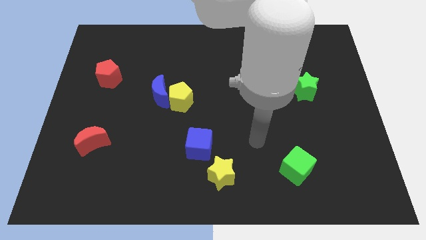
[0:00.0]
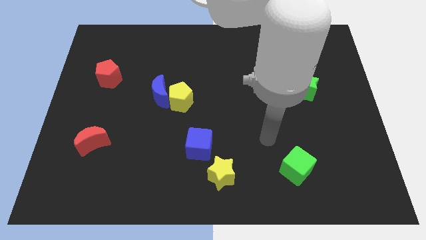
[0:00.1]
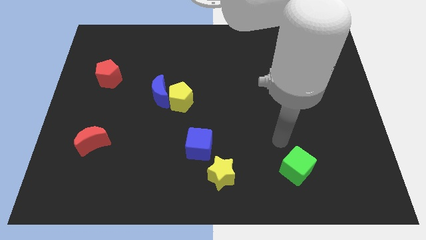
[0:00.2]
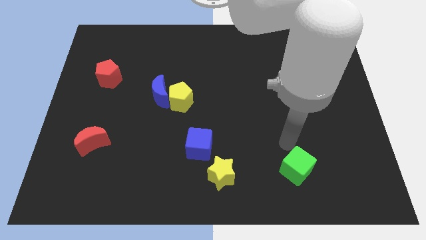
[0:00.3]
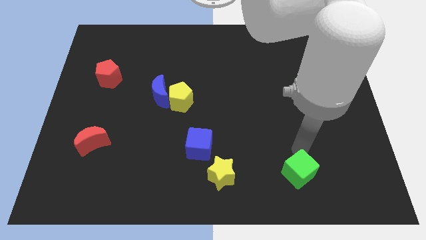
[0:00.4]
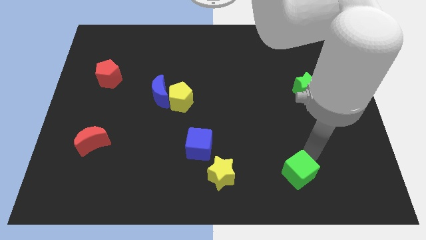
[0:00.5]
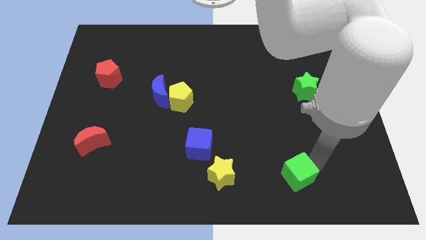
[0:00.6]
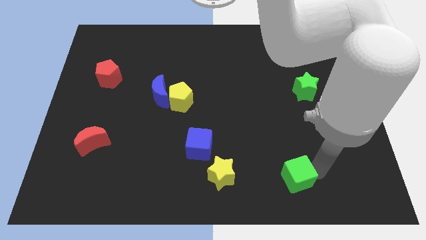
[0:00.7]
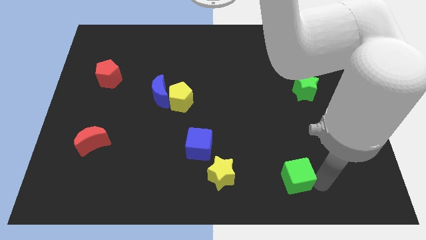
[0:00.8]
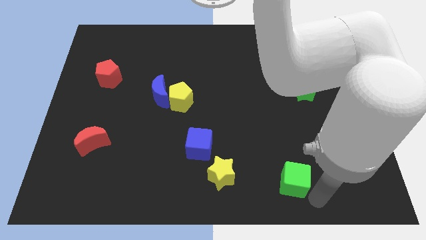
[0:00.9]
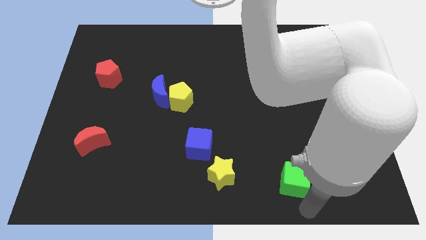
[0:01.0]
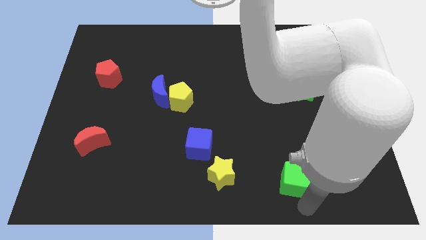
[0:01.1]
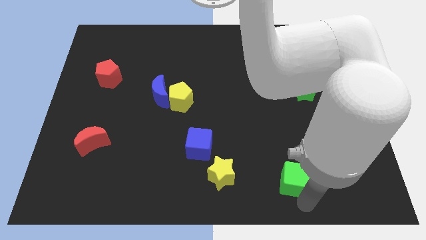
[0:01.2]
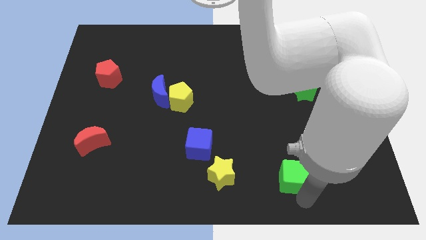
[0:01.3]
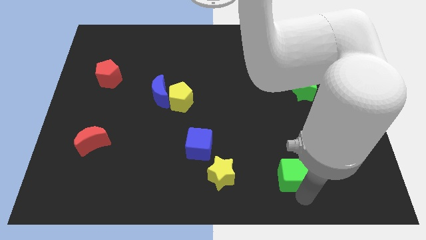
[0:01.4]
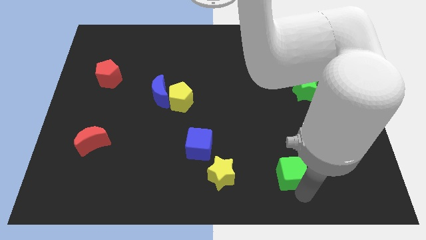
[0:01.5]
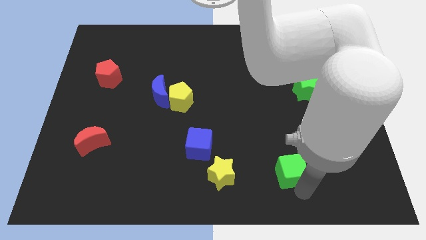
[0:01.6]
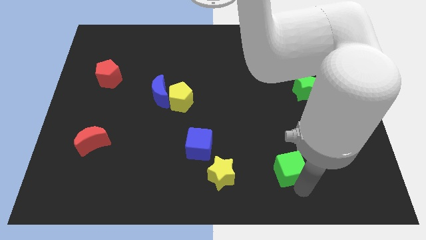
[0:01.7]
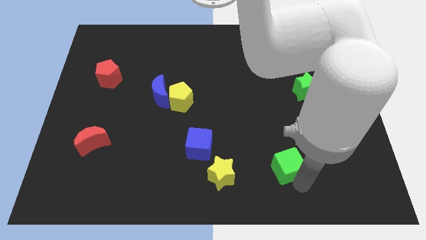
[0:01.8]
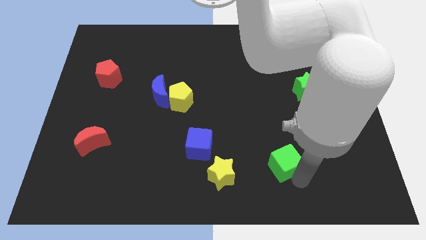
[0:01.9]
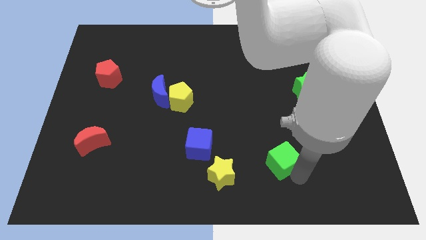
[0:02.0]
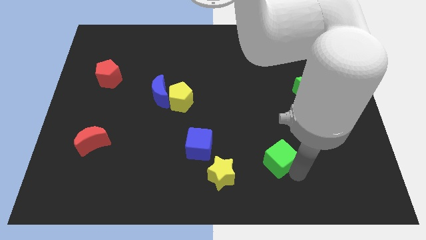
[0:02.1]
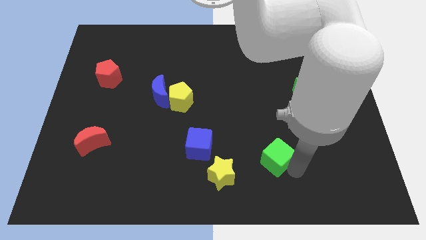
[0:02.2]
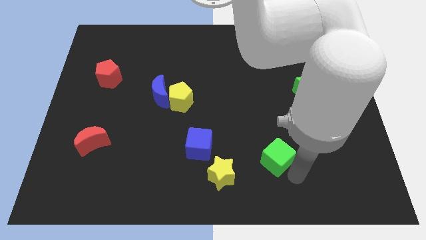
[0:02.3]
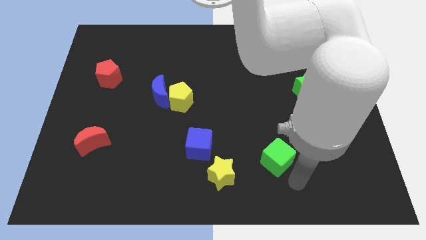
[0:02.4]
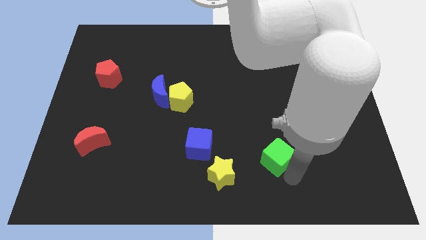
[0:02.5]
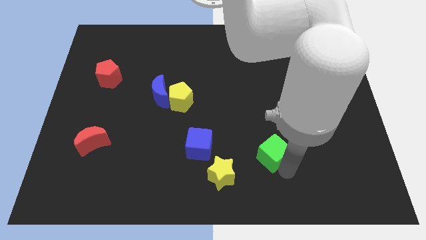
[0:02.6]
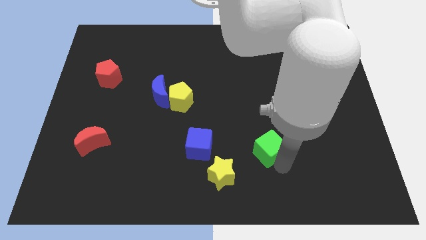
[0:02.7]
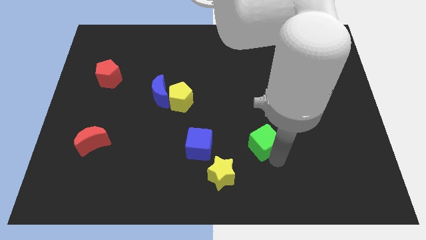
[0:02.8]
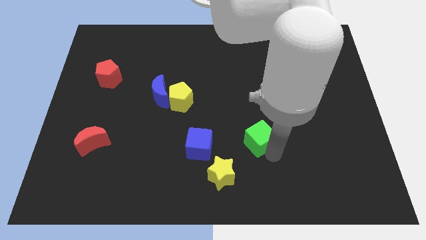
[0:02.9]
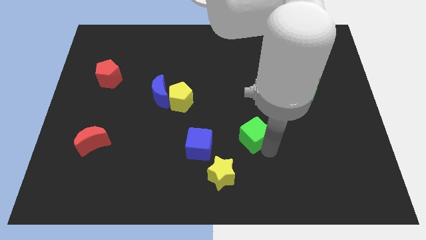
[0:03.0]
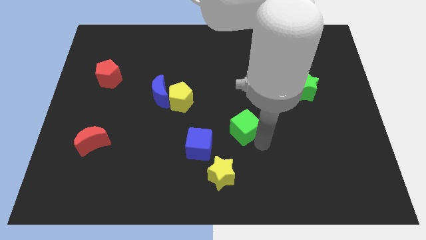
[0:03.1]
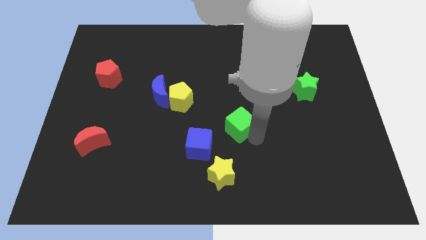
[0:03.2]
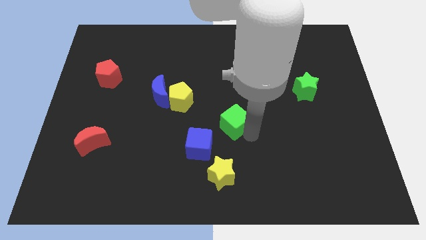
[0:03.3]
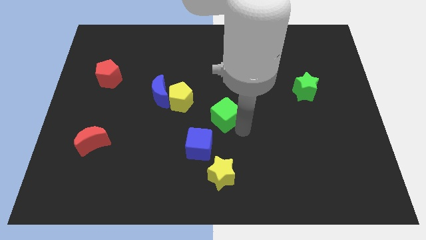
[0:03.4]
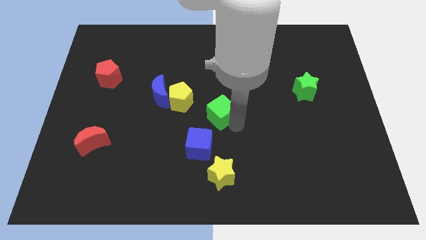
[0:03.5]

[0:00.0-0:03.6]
move the green cube up and then to the left

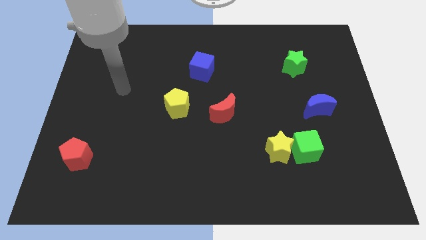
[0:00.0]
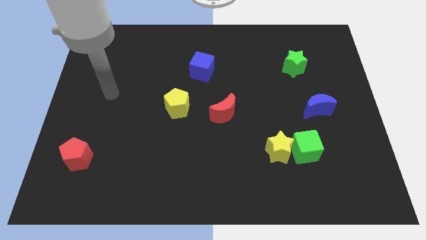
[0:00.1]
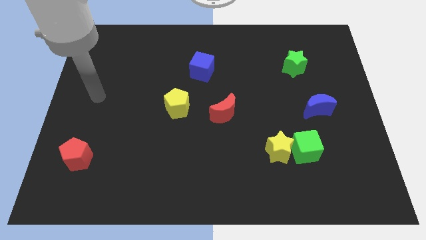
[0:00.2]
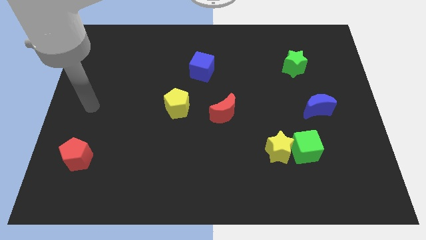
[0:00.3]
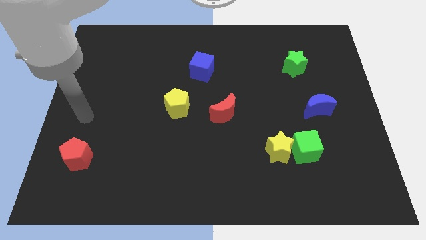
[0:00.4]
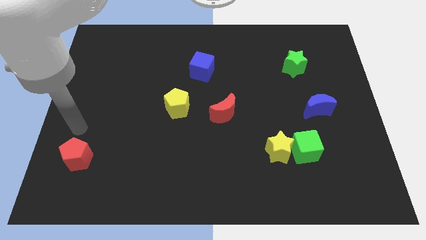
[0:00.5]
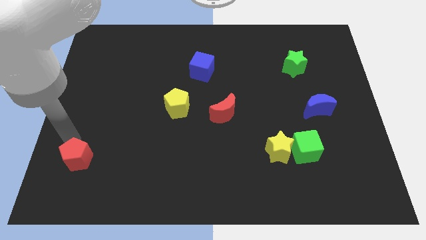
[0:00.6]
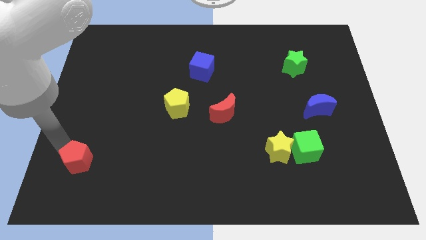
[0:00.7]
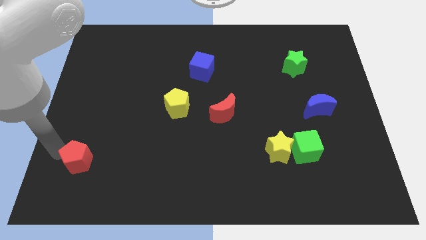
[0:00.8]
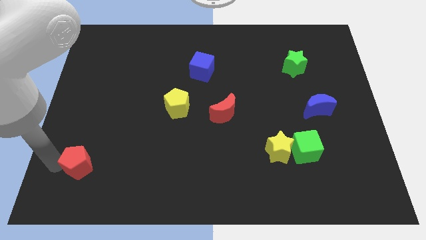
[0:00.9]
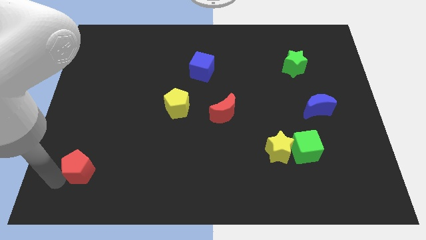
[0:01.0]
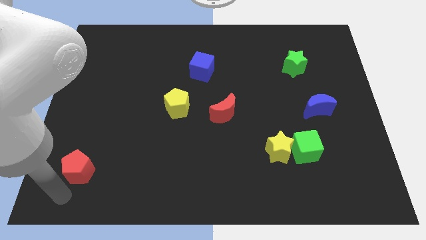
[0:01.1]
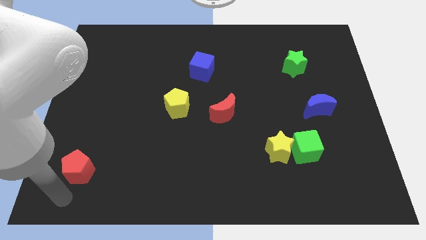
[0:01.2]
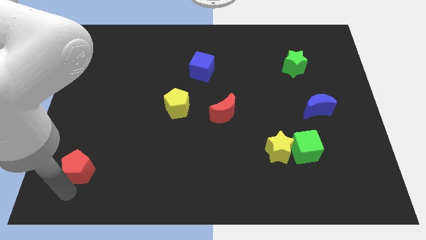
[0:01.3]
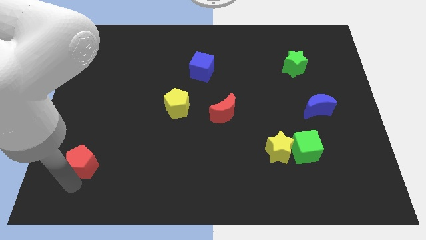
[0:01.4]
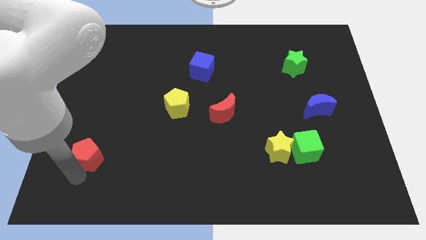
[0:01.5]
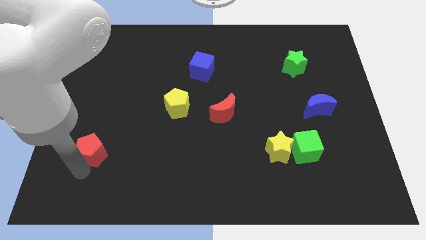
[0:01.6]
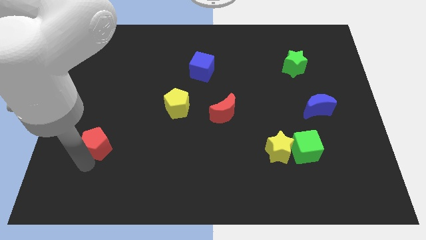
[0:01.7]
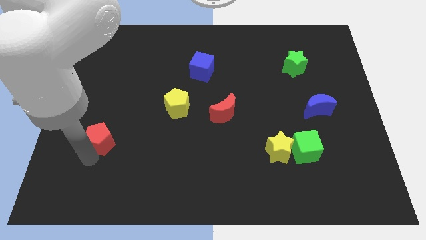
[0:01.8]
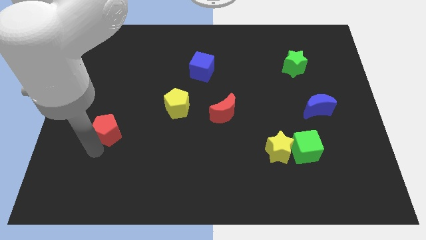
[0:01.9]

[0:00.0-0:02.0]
slide the red pentagon a bit up and to the right diagonally

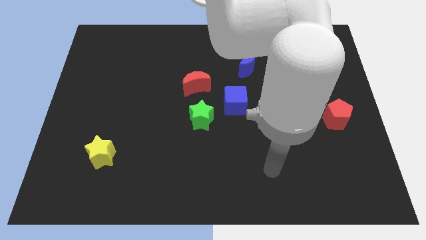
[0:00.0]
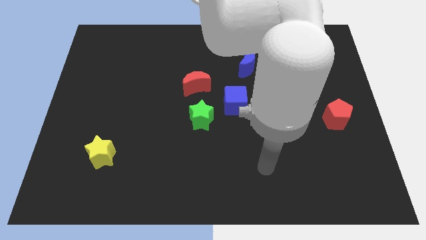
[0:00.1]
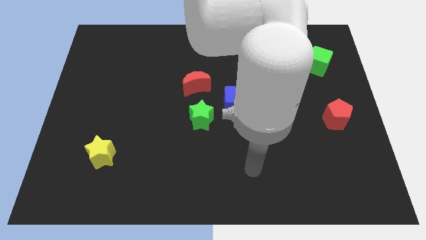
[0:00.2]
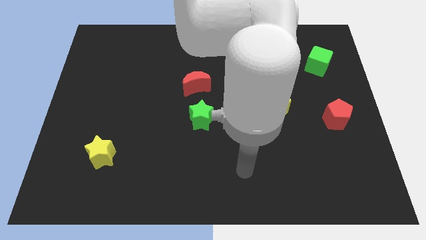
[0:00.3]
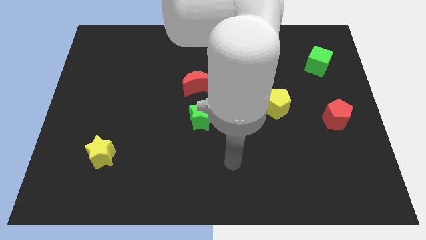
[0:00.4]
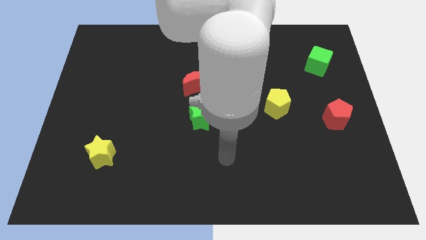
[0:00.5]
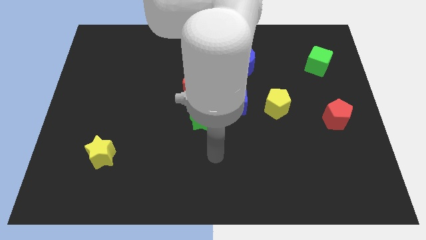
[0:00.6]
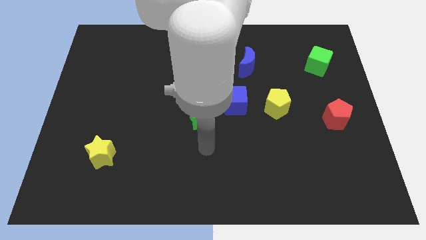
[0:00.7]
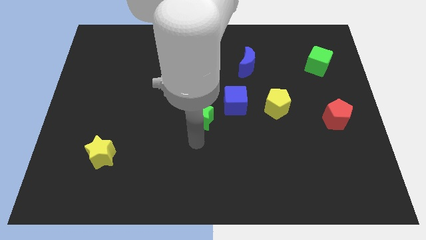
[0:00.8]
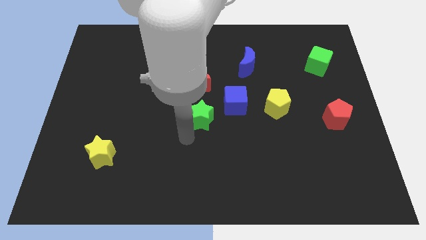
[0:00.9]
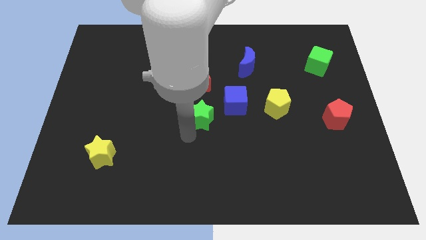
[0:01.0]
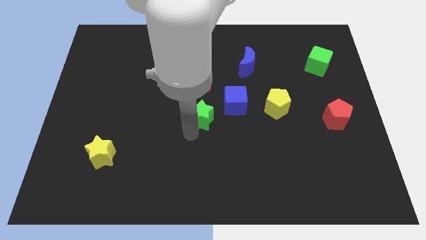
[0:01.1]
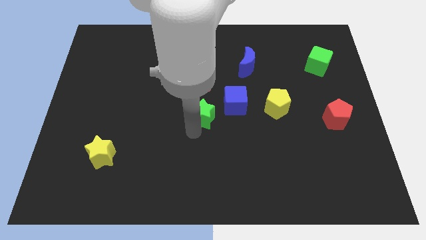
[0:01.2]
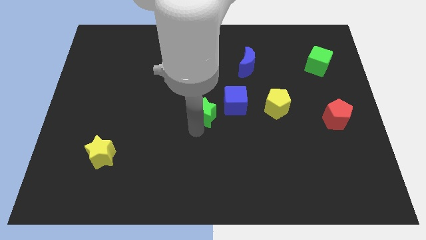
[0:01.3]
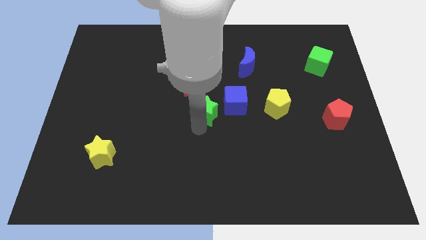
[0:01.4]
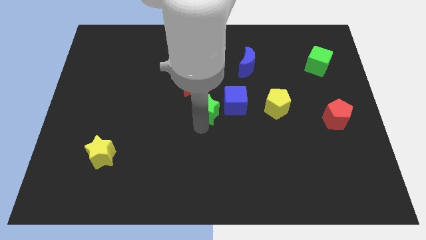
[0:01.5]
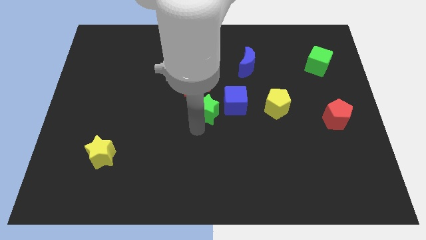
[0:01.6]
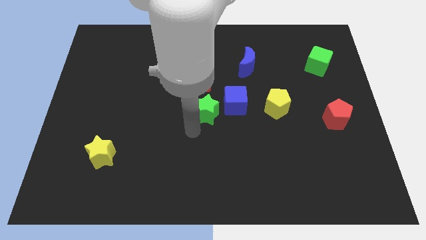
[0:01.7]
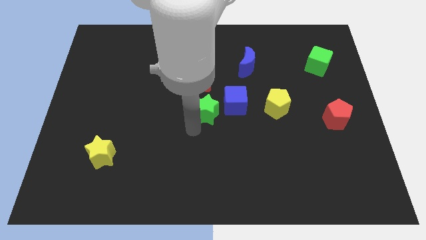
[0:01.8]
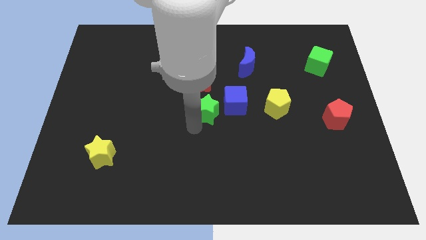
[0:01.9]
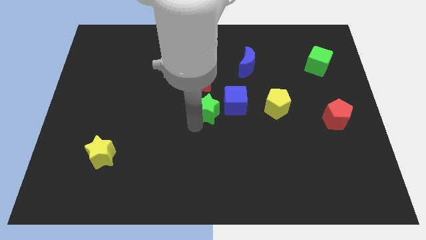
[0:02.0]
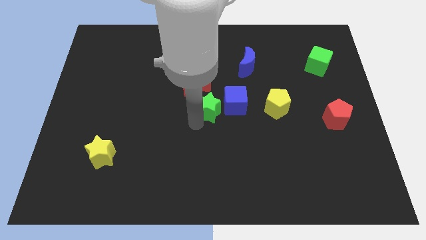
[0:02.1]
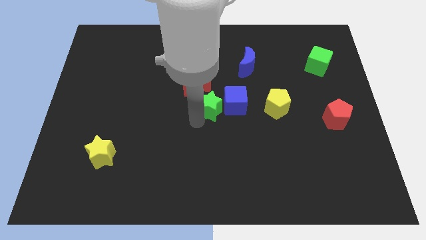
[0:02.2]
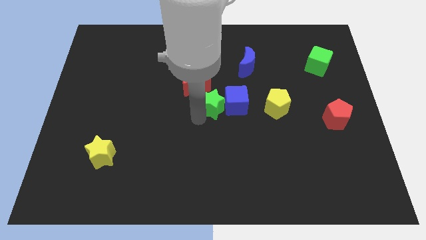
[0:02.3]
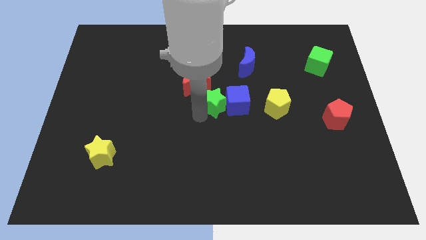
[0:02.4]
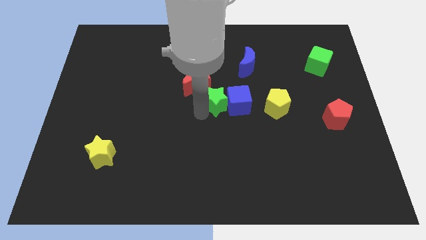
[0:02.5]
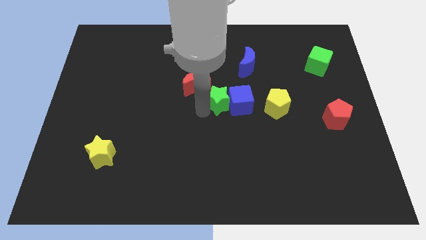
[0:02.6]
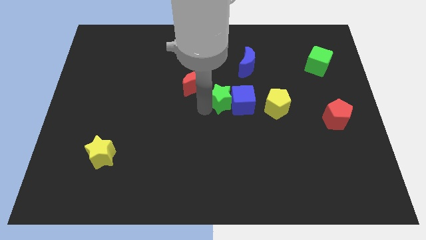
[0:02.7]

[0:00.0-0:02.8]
push the green star upwards and right somewhat
